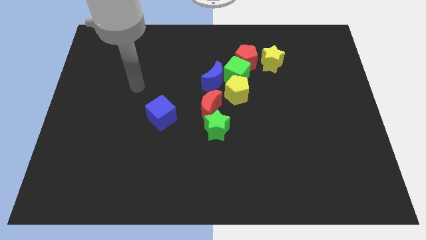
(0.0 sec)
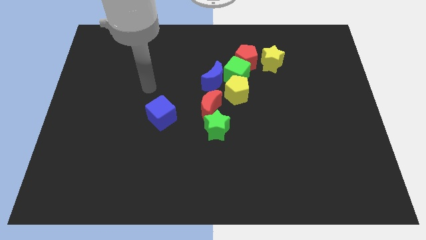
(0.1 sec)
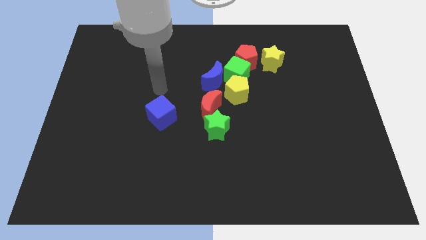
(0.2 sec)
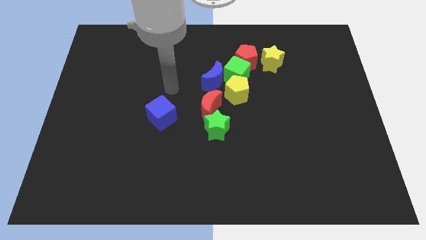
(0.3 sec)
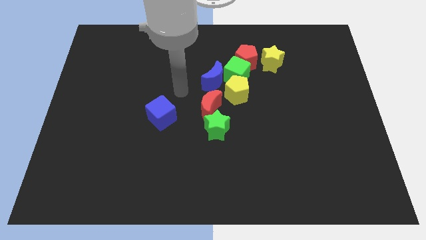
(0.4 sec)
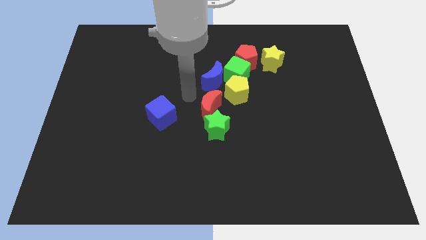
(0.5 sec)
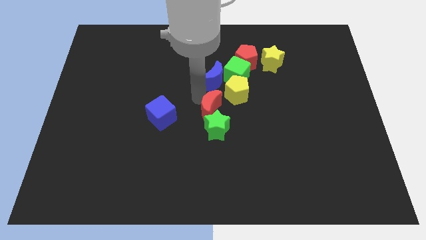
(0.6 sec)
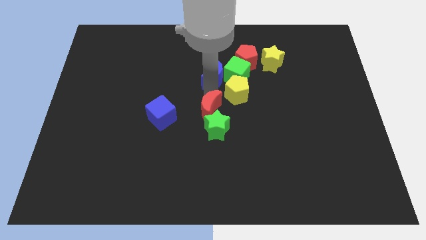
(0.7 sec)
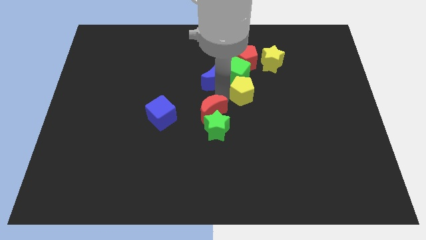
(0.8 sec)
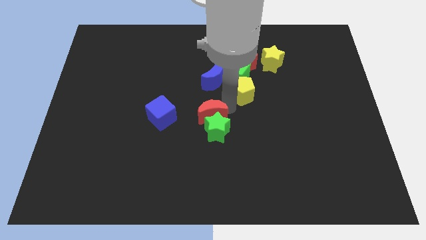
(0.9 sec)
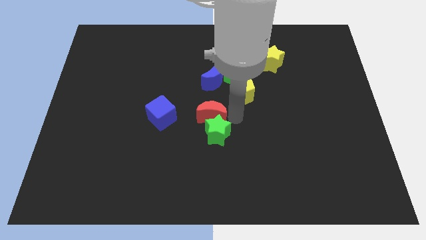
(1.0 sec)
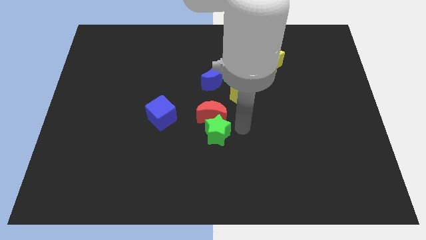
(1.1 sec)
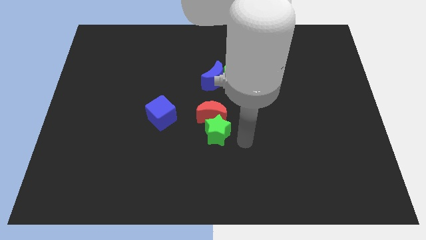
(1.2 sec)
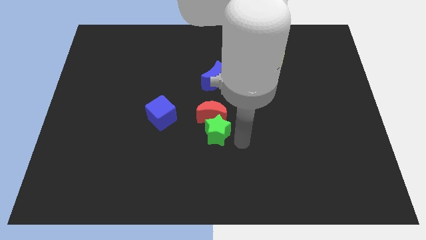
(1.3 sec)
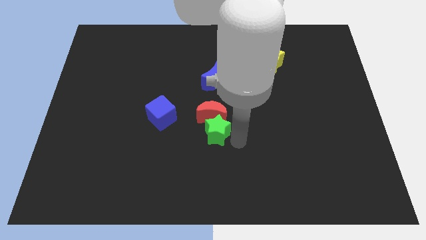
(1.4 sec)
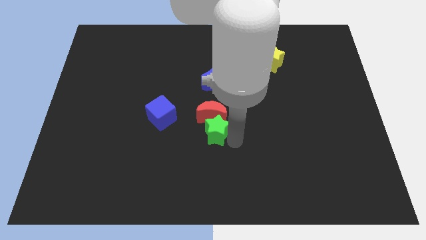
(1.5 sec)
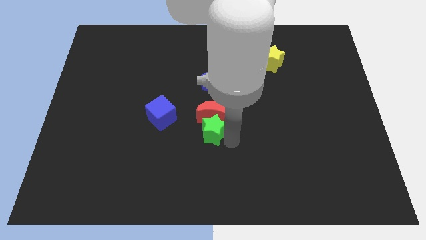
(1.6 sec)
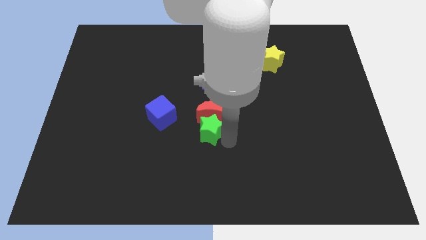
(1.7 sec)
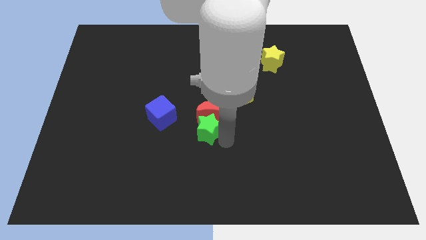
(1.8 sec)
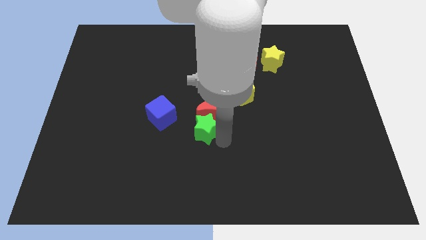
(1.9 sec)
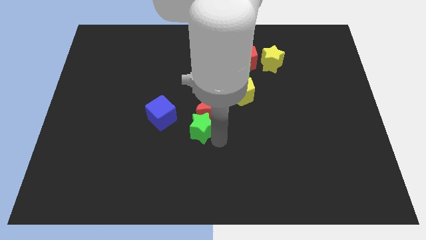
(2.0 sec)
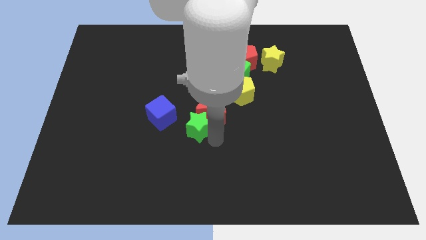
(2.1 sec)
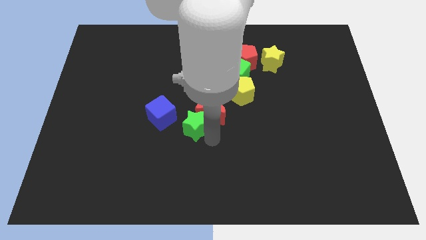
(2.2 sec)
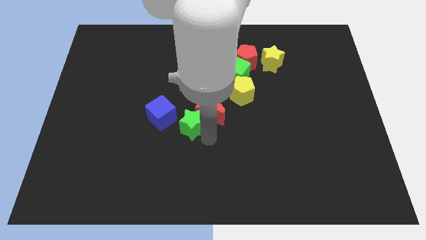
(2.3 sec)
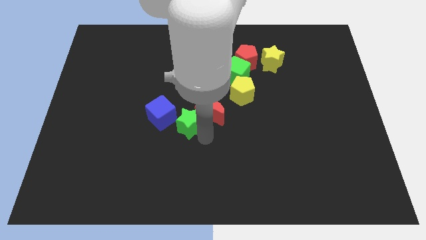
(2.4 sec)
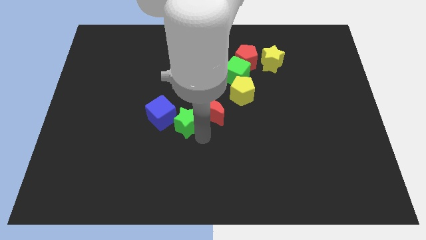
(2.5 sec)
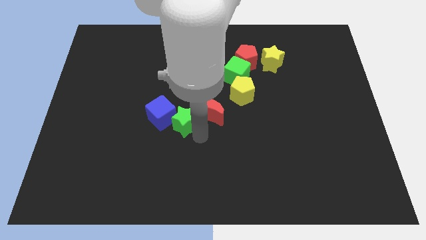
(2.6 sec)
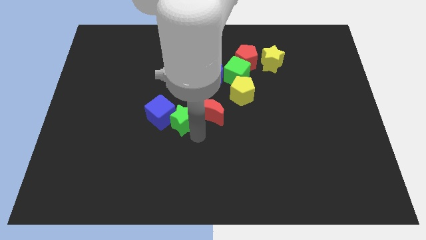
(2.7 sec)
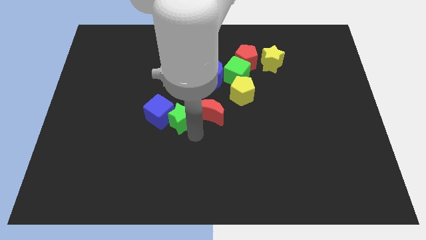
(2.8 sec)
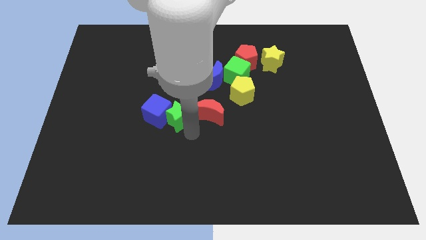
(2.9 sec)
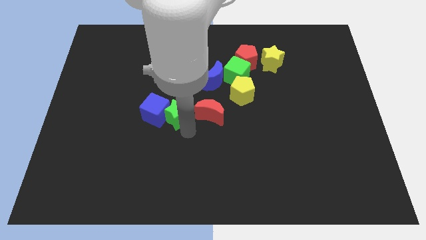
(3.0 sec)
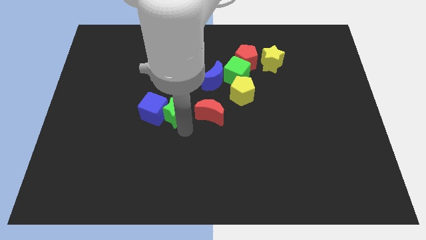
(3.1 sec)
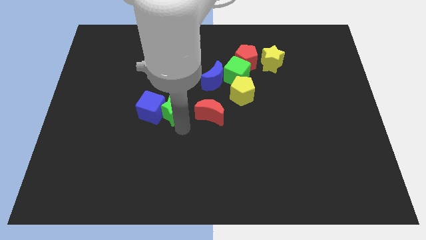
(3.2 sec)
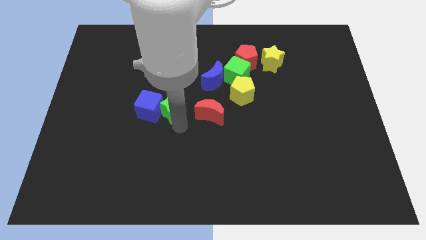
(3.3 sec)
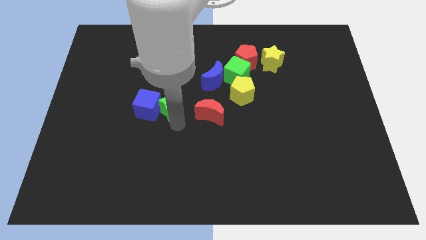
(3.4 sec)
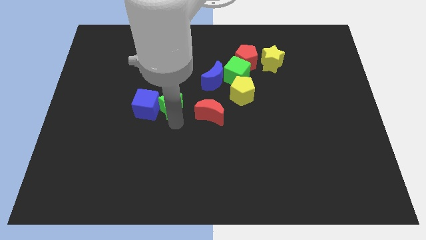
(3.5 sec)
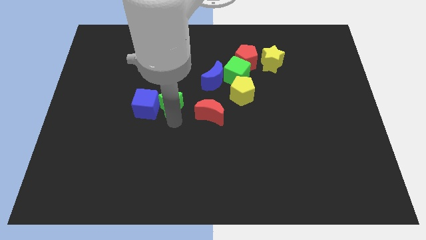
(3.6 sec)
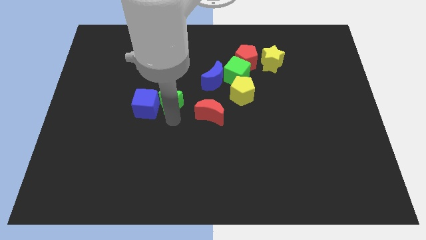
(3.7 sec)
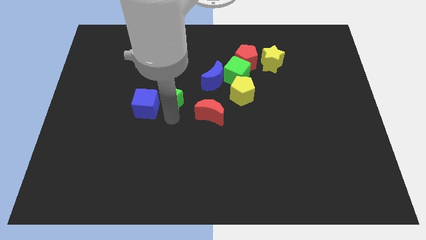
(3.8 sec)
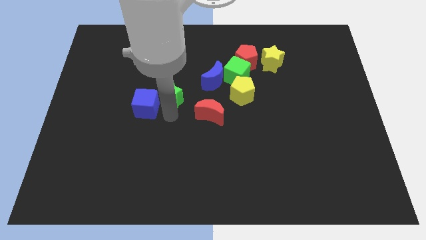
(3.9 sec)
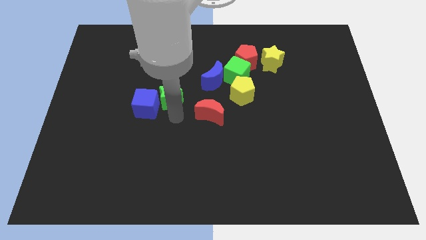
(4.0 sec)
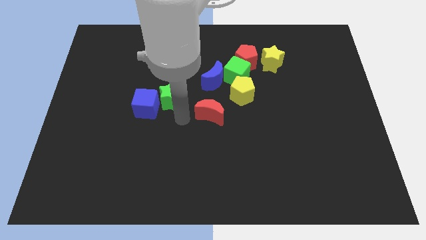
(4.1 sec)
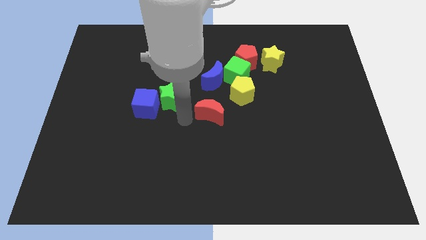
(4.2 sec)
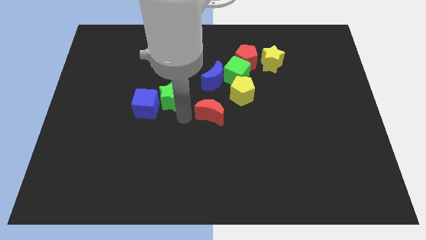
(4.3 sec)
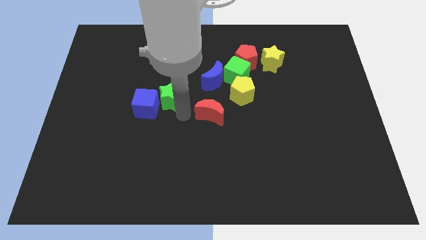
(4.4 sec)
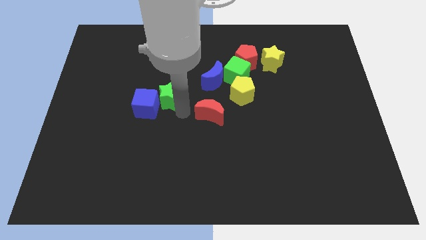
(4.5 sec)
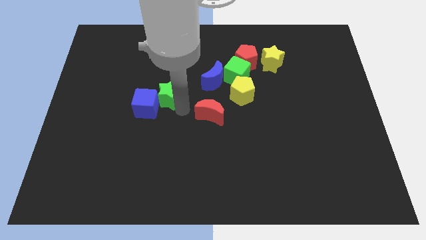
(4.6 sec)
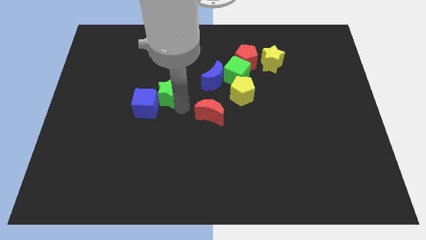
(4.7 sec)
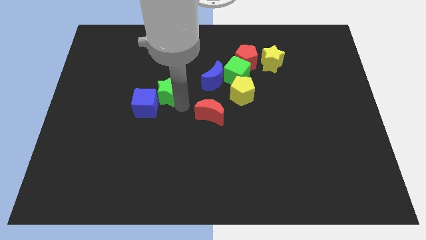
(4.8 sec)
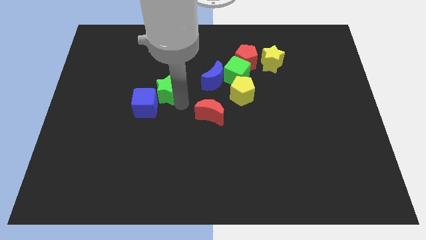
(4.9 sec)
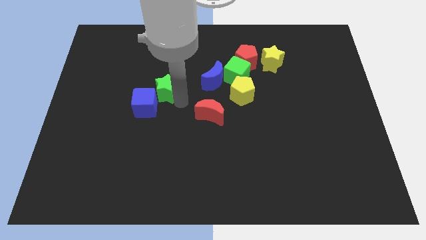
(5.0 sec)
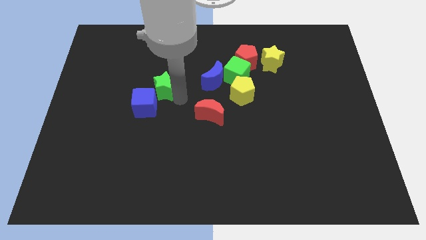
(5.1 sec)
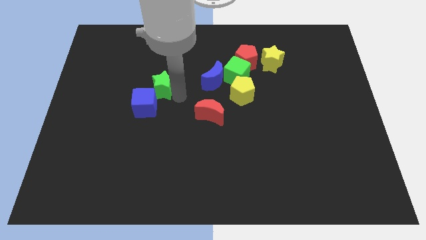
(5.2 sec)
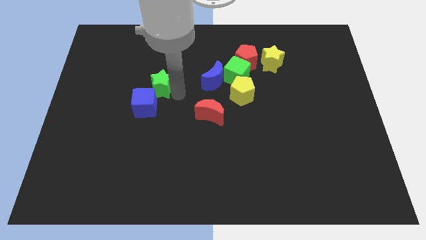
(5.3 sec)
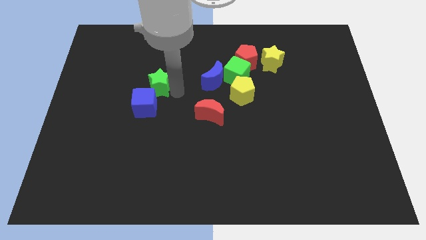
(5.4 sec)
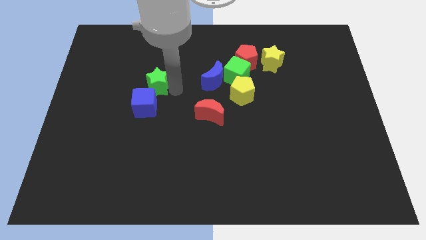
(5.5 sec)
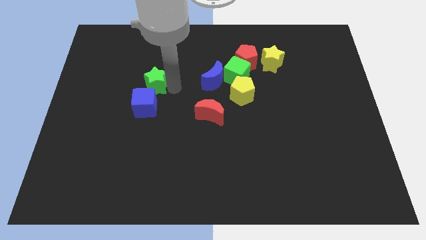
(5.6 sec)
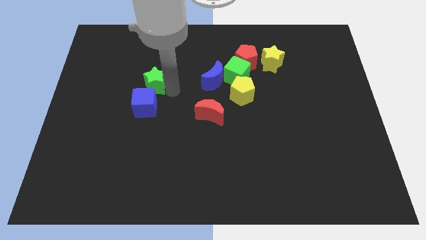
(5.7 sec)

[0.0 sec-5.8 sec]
move the green star up and to the left

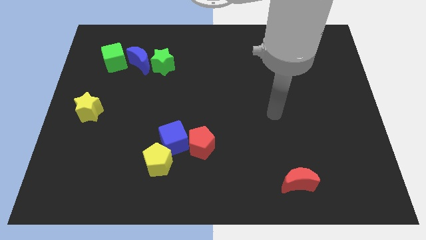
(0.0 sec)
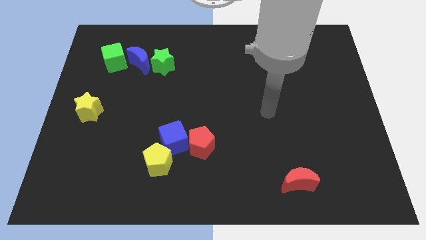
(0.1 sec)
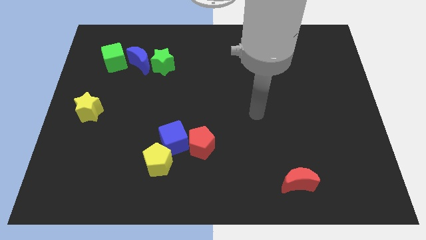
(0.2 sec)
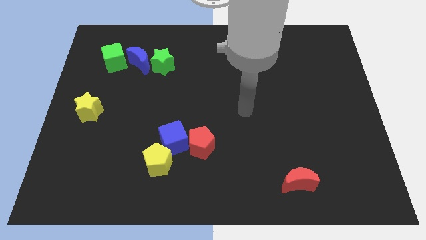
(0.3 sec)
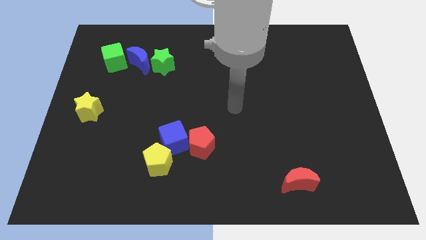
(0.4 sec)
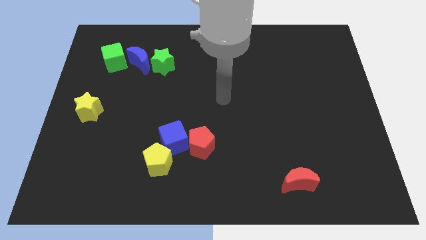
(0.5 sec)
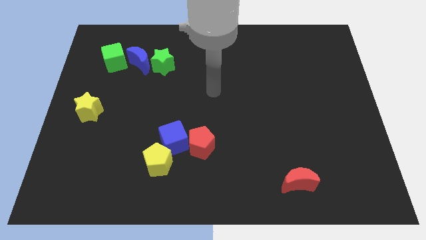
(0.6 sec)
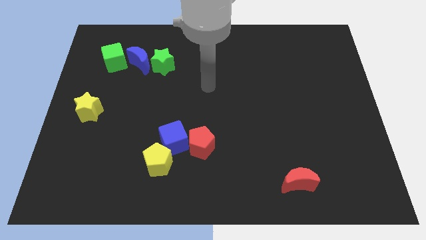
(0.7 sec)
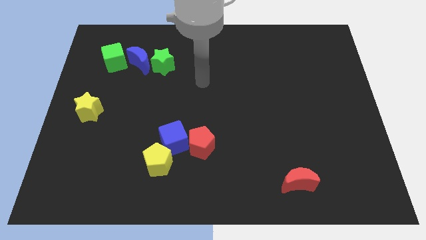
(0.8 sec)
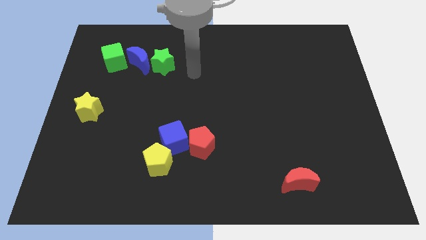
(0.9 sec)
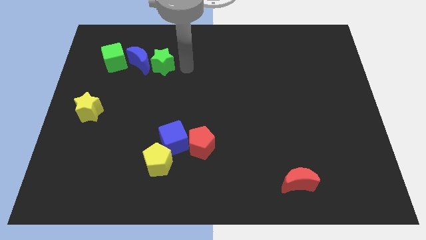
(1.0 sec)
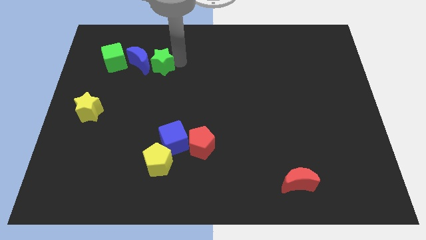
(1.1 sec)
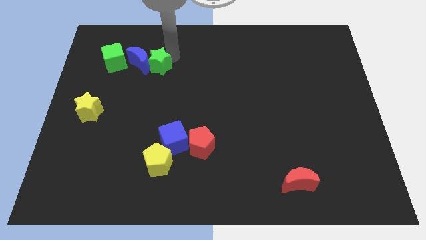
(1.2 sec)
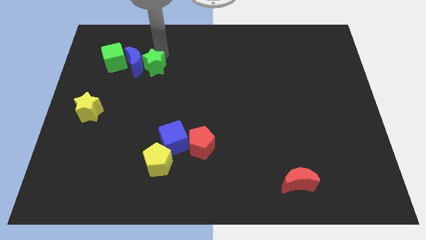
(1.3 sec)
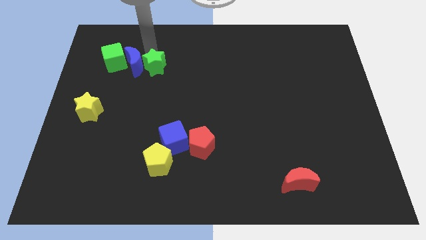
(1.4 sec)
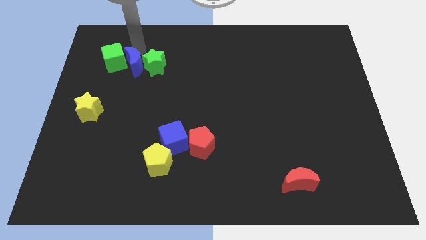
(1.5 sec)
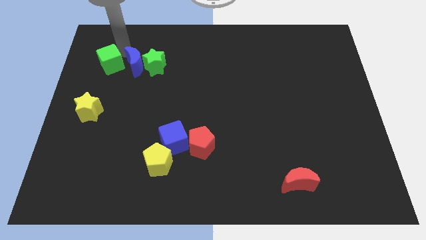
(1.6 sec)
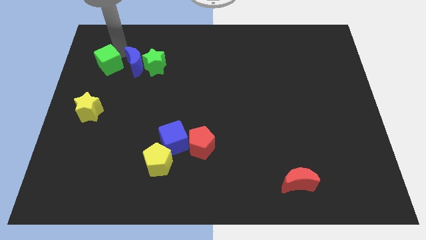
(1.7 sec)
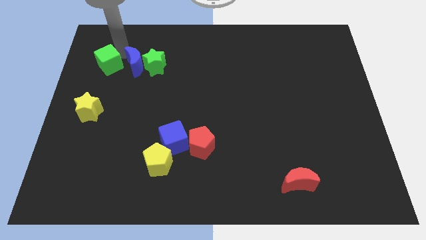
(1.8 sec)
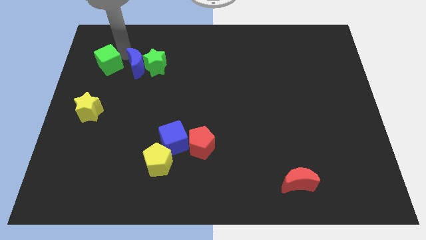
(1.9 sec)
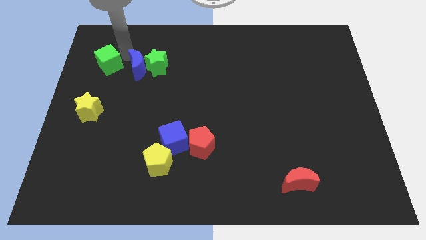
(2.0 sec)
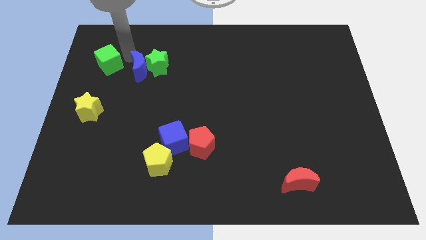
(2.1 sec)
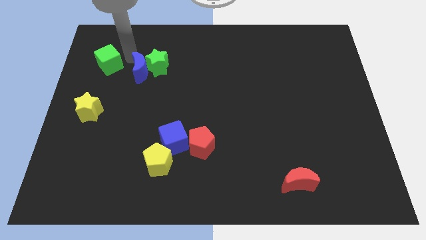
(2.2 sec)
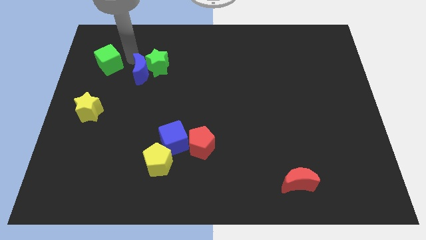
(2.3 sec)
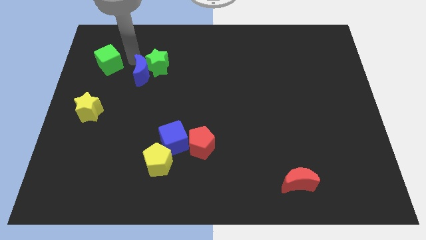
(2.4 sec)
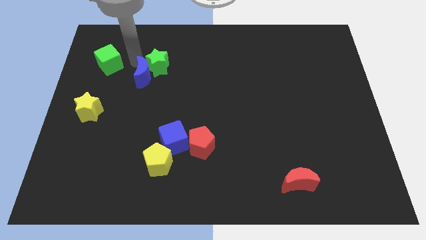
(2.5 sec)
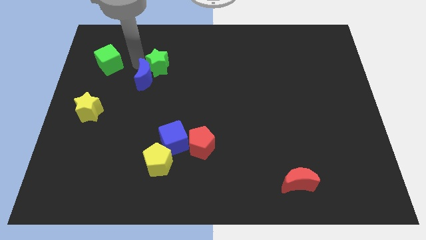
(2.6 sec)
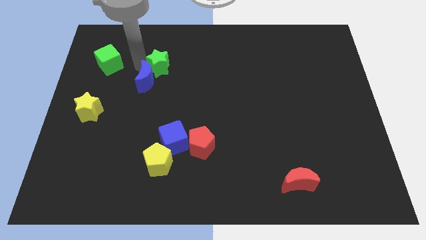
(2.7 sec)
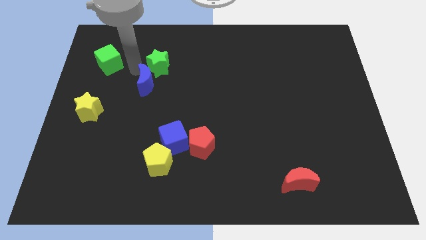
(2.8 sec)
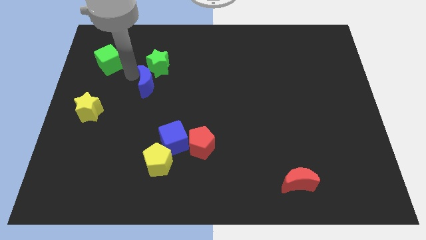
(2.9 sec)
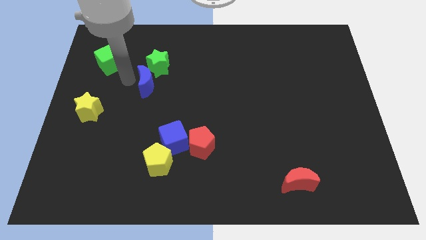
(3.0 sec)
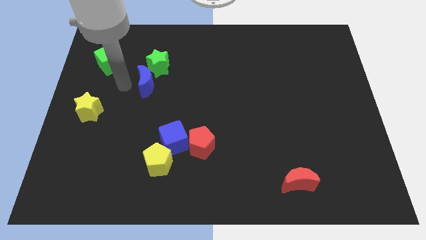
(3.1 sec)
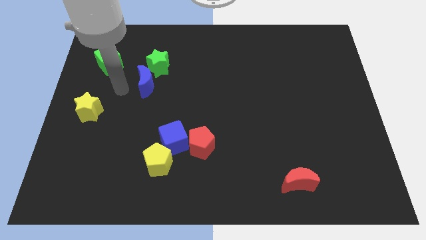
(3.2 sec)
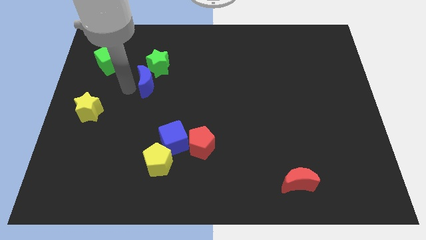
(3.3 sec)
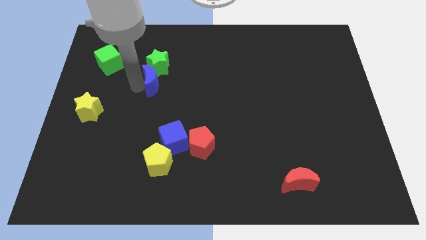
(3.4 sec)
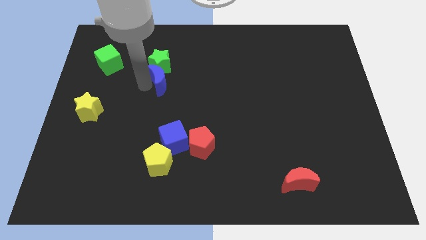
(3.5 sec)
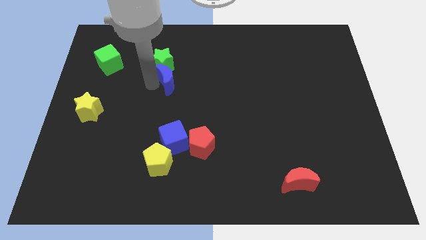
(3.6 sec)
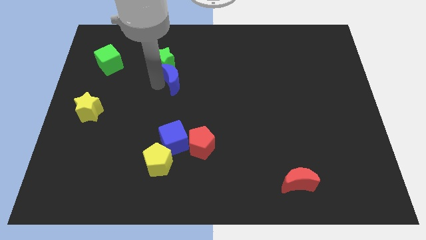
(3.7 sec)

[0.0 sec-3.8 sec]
slide the blue moon a little bit to the right
